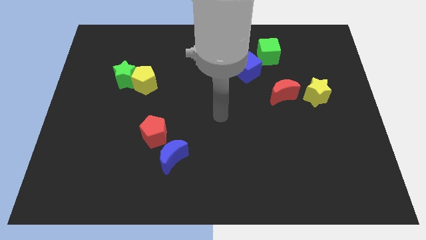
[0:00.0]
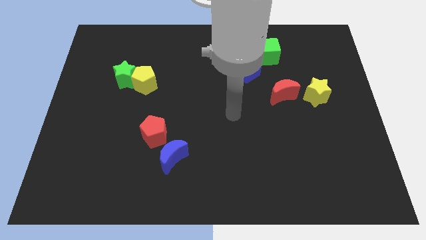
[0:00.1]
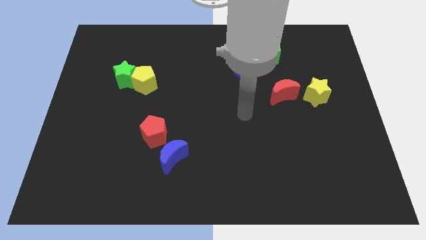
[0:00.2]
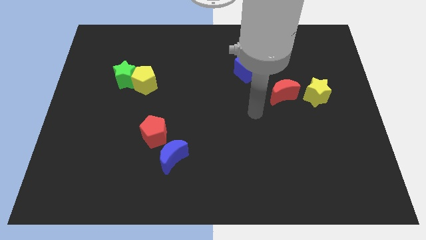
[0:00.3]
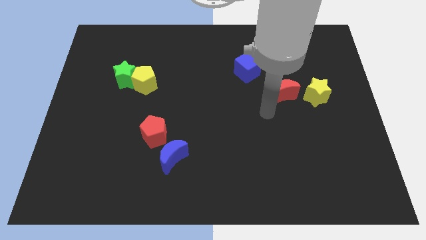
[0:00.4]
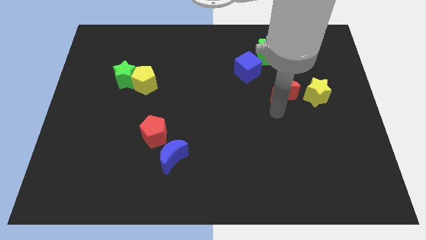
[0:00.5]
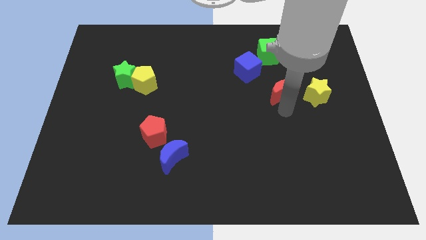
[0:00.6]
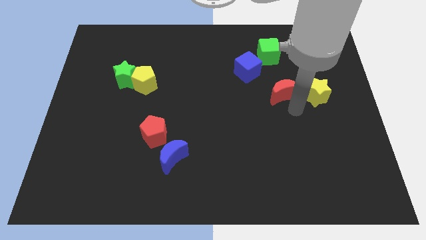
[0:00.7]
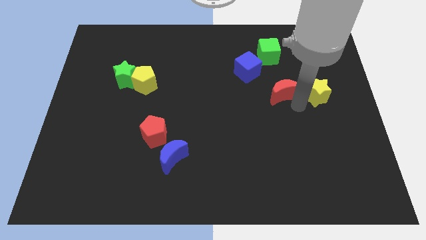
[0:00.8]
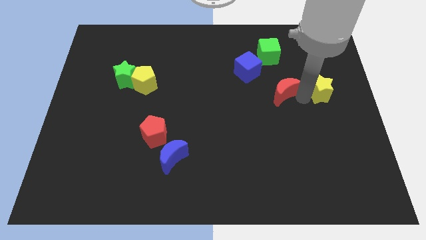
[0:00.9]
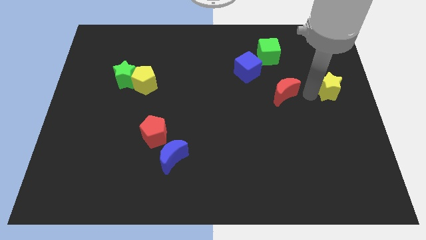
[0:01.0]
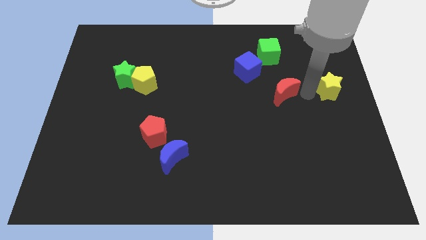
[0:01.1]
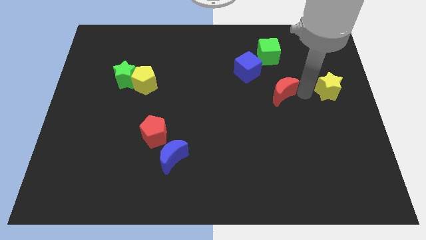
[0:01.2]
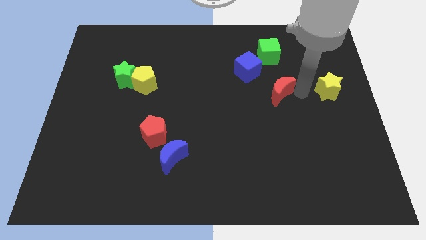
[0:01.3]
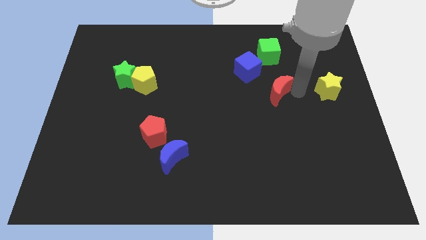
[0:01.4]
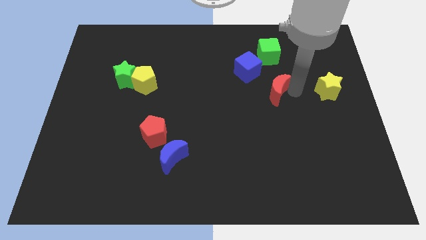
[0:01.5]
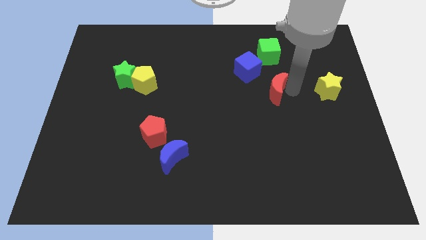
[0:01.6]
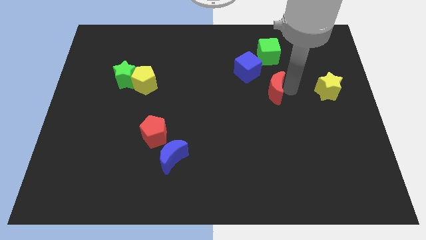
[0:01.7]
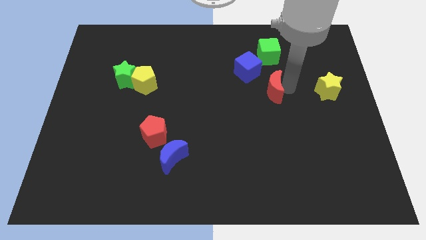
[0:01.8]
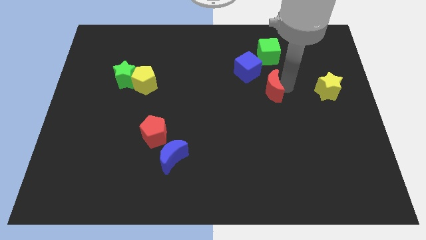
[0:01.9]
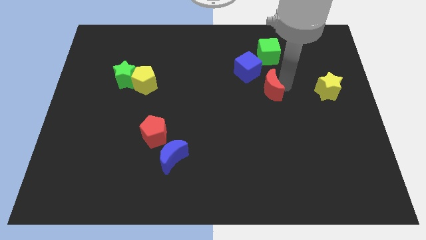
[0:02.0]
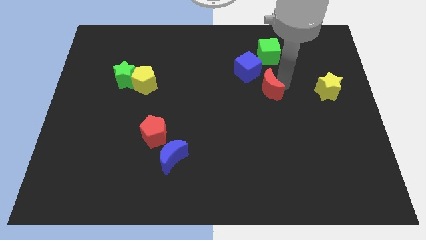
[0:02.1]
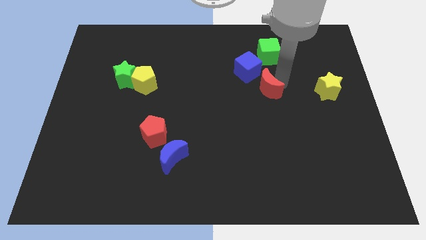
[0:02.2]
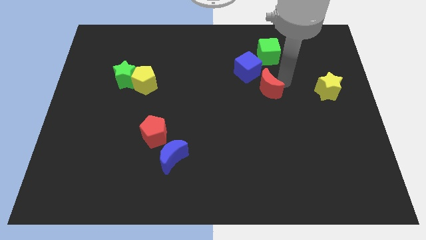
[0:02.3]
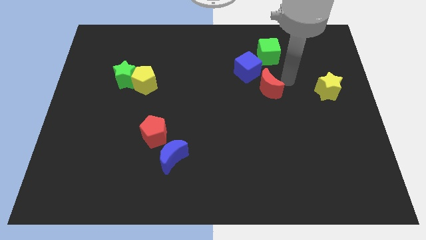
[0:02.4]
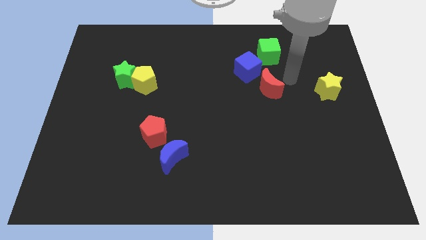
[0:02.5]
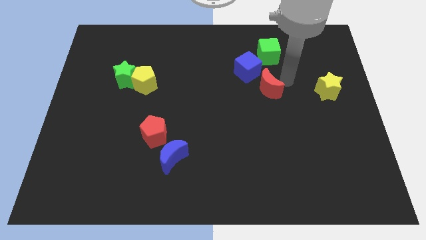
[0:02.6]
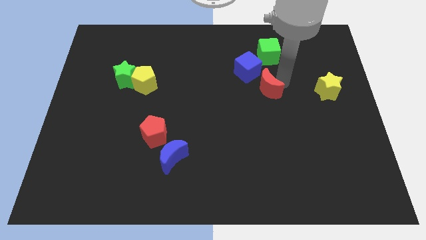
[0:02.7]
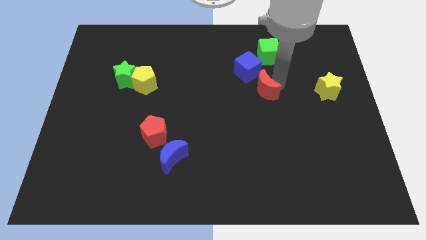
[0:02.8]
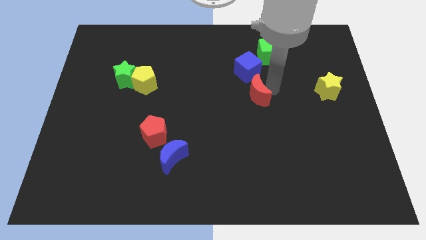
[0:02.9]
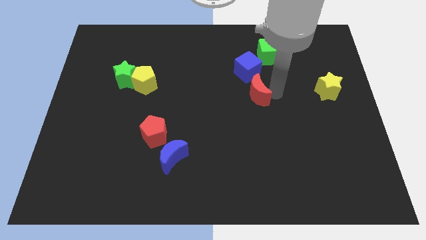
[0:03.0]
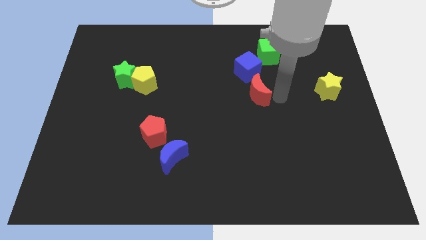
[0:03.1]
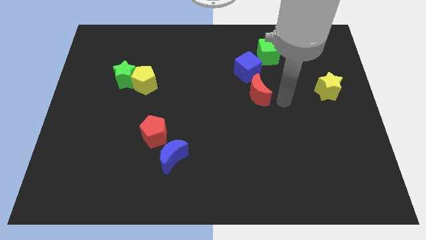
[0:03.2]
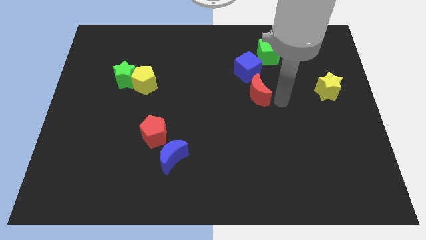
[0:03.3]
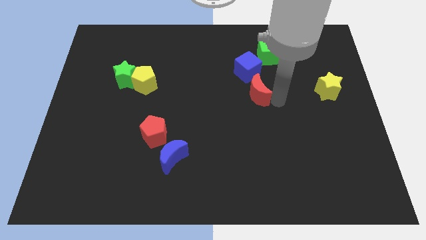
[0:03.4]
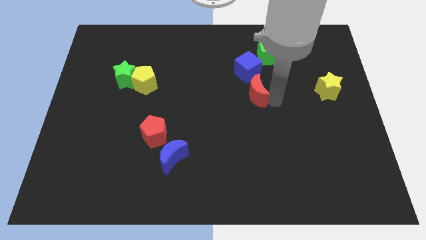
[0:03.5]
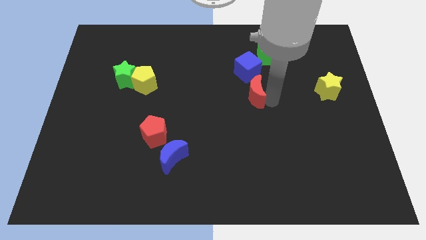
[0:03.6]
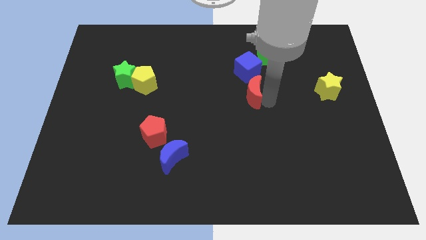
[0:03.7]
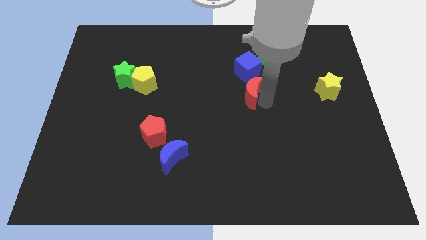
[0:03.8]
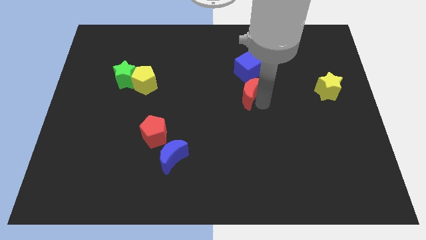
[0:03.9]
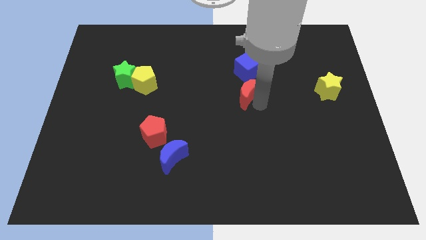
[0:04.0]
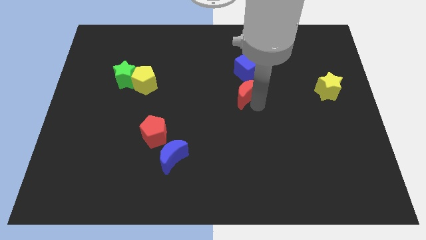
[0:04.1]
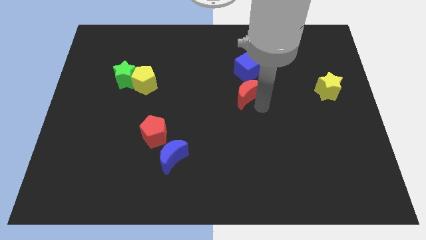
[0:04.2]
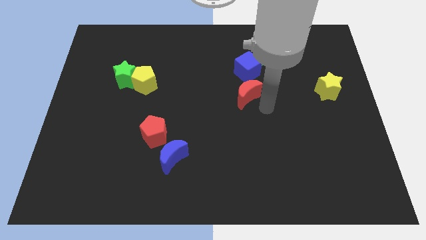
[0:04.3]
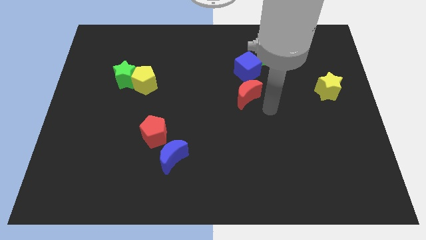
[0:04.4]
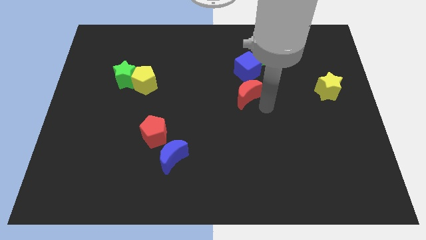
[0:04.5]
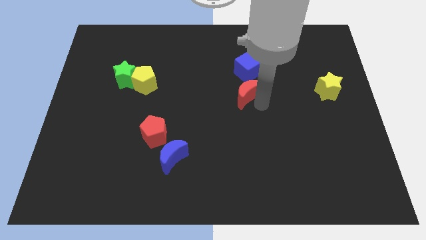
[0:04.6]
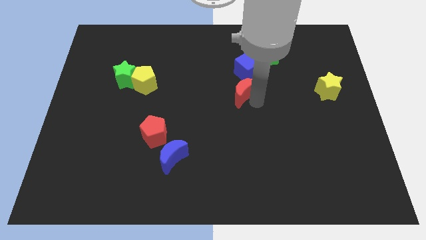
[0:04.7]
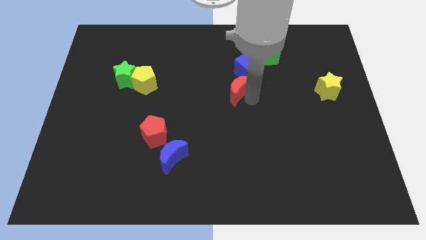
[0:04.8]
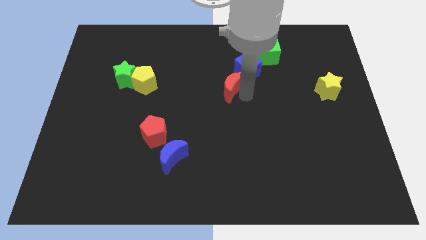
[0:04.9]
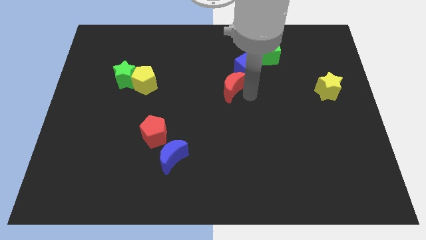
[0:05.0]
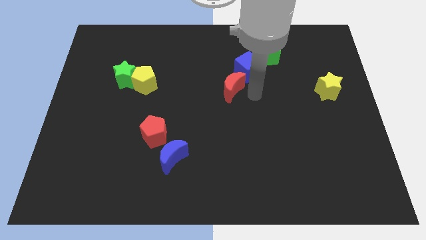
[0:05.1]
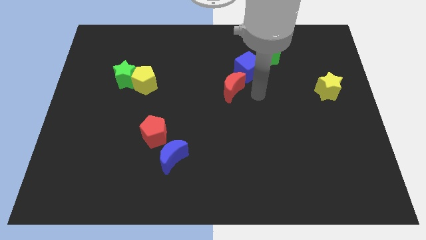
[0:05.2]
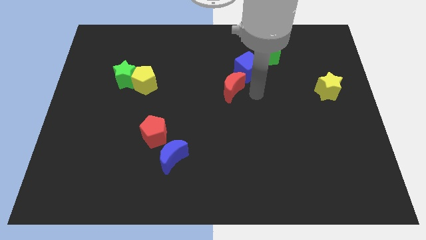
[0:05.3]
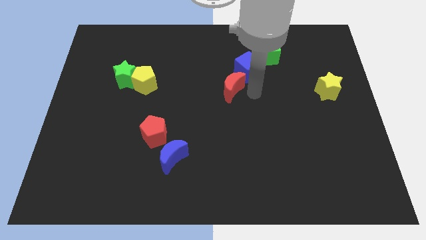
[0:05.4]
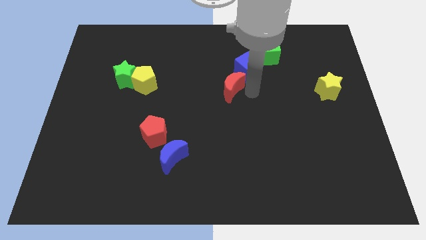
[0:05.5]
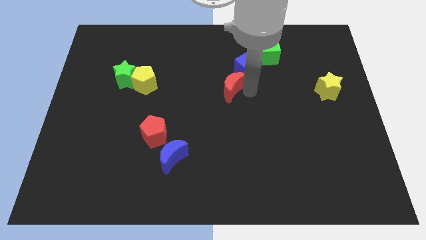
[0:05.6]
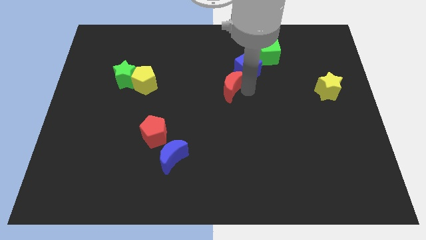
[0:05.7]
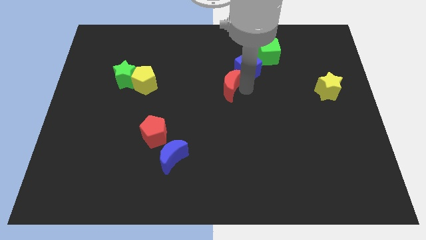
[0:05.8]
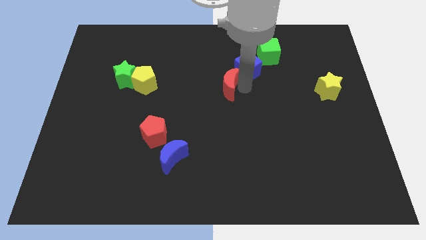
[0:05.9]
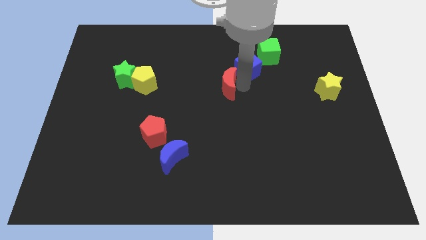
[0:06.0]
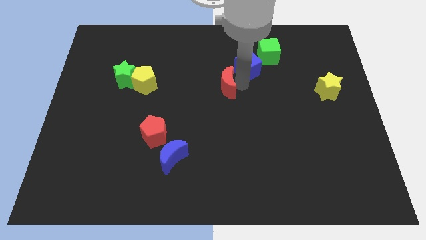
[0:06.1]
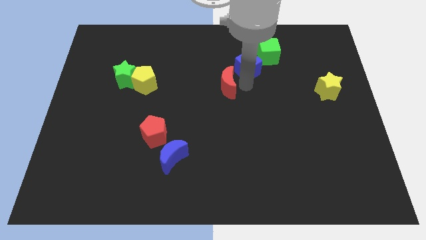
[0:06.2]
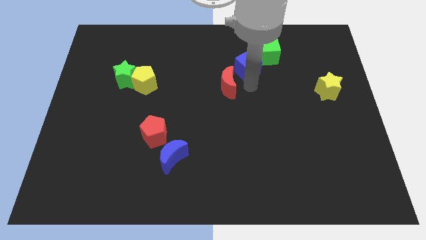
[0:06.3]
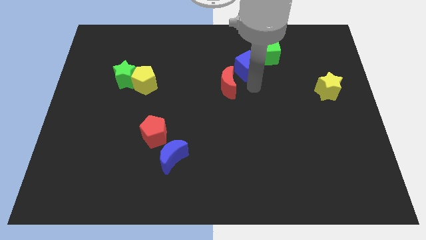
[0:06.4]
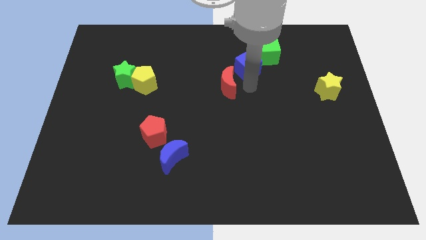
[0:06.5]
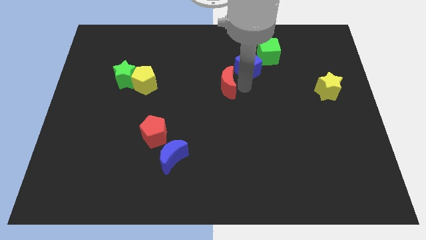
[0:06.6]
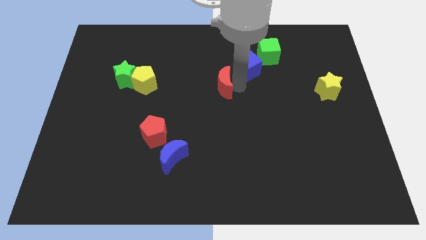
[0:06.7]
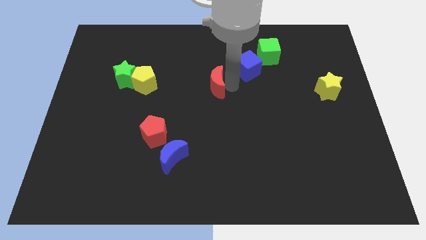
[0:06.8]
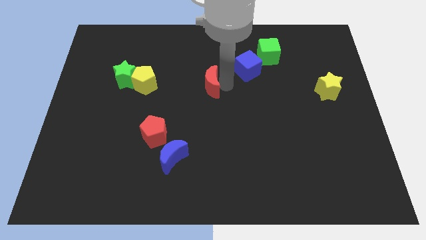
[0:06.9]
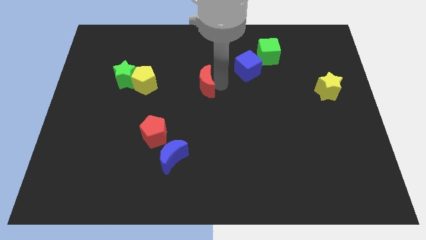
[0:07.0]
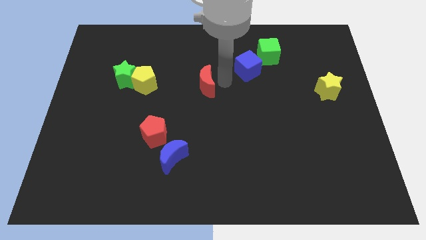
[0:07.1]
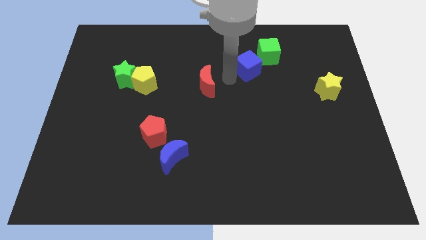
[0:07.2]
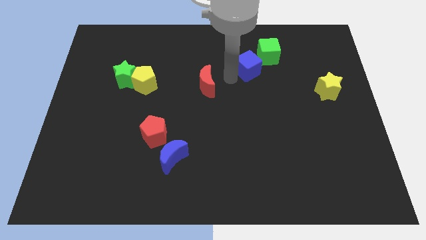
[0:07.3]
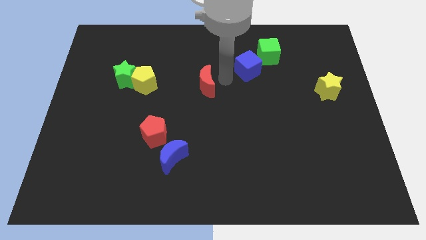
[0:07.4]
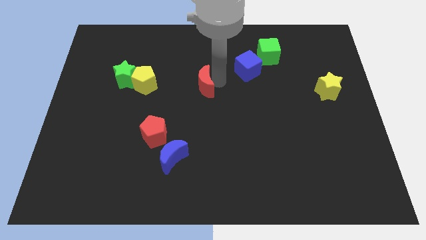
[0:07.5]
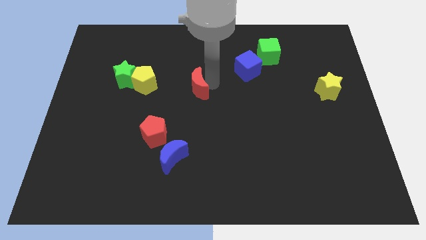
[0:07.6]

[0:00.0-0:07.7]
push the red moon left
